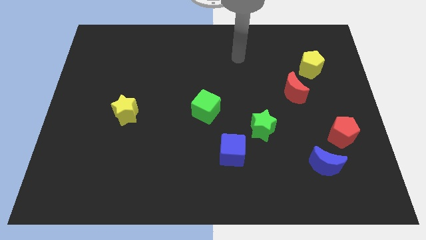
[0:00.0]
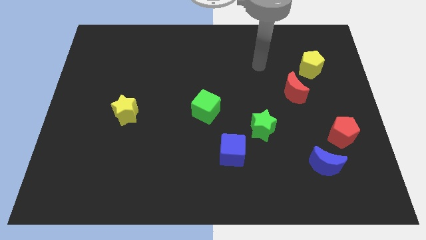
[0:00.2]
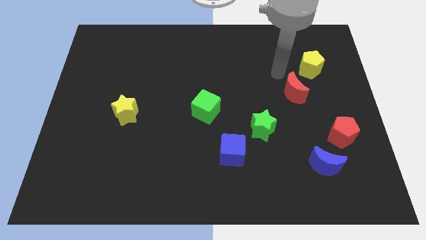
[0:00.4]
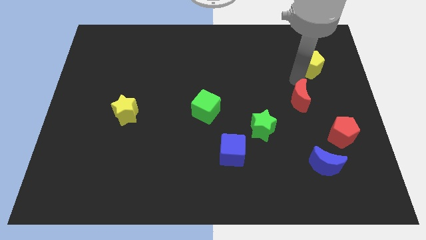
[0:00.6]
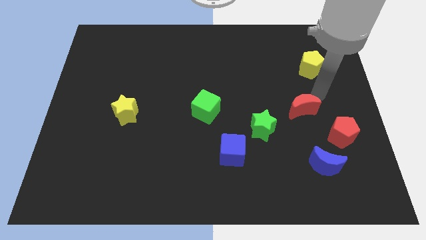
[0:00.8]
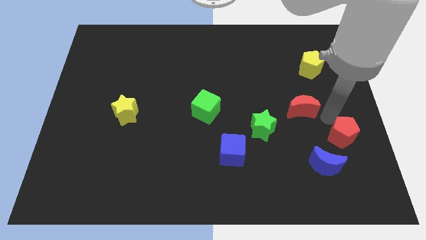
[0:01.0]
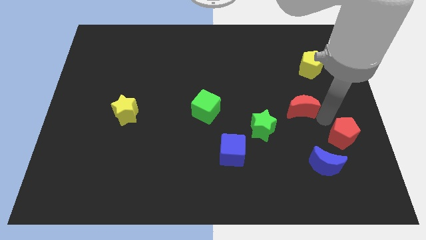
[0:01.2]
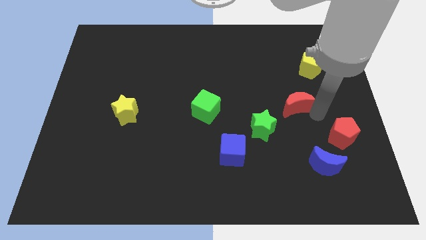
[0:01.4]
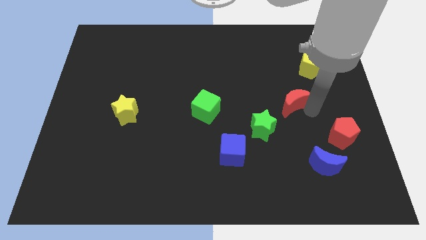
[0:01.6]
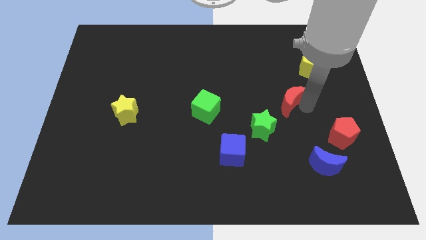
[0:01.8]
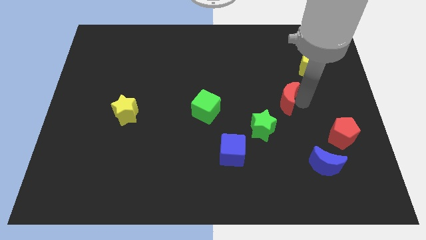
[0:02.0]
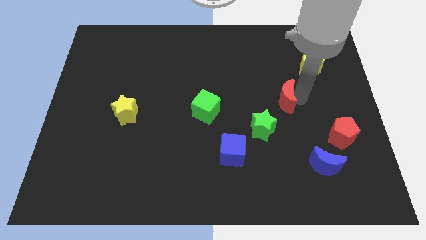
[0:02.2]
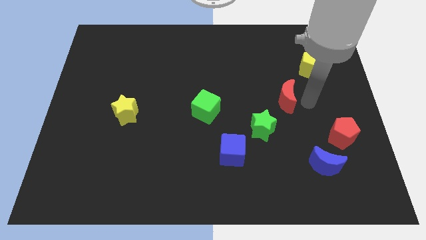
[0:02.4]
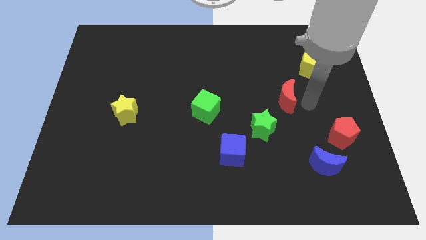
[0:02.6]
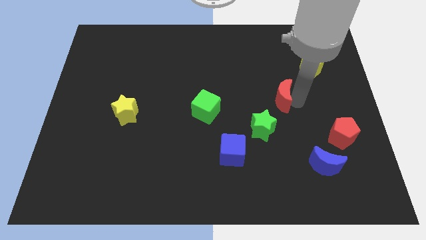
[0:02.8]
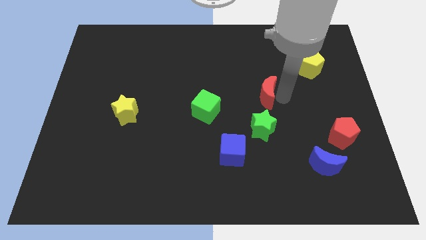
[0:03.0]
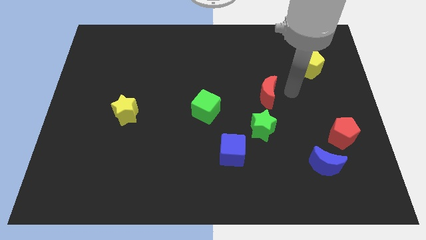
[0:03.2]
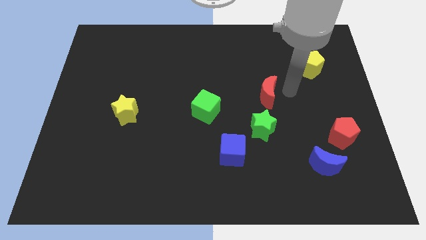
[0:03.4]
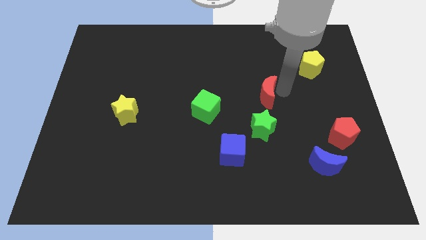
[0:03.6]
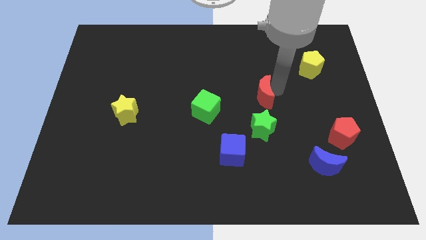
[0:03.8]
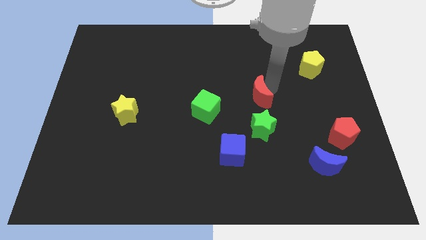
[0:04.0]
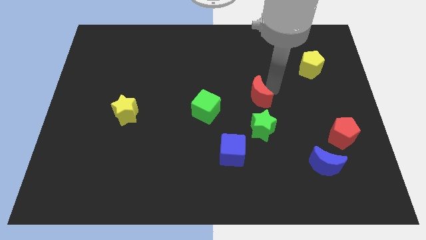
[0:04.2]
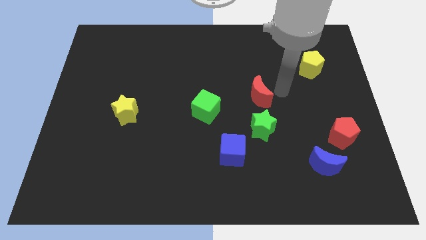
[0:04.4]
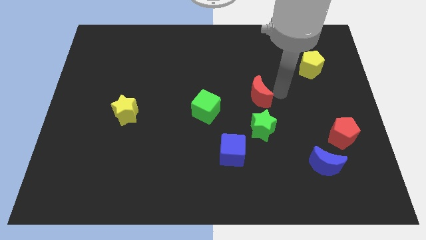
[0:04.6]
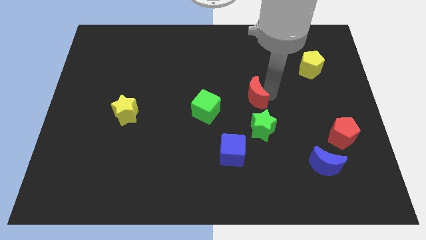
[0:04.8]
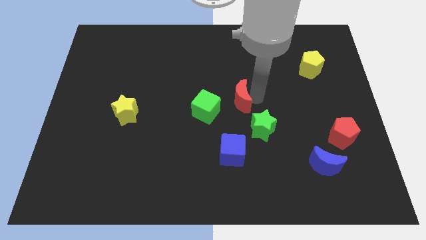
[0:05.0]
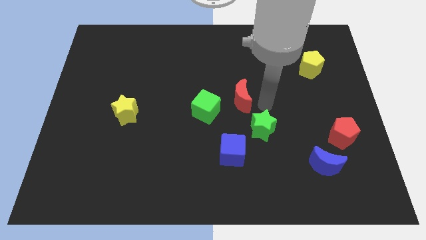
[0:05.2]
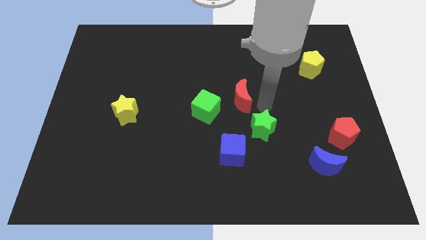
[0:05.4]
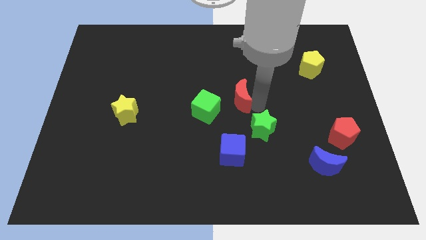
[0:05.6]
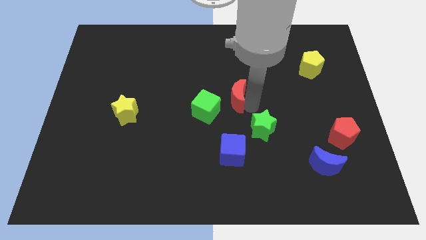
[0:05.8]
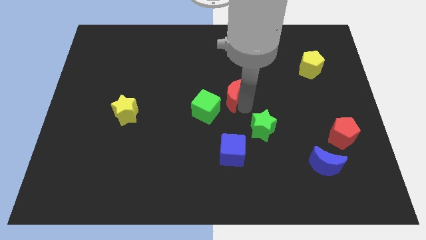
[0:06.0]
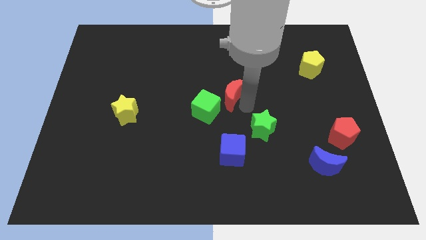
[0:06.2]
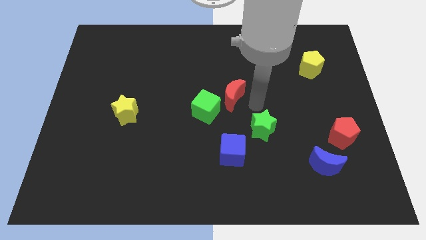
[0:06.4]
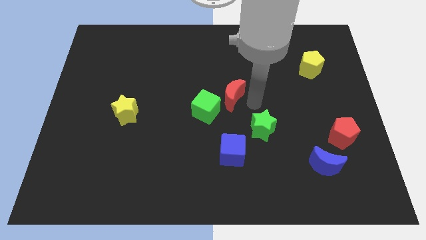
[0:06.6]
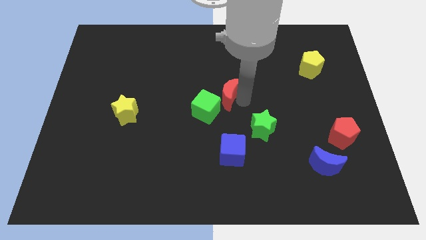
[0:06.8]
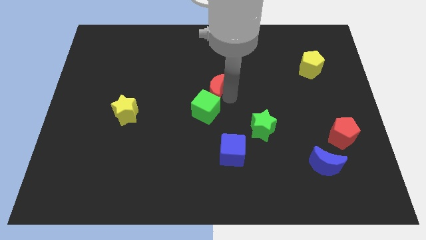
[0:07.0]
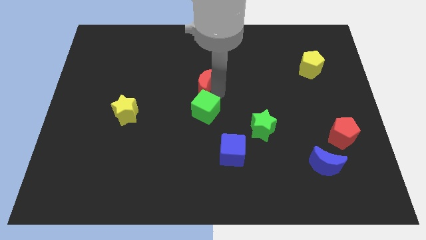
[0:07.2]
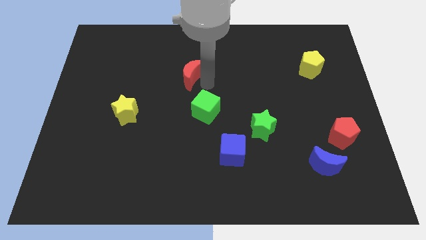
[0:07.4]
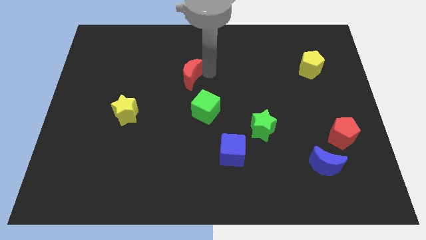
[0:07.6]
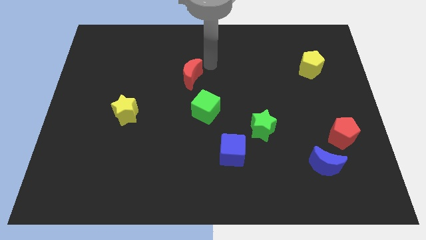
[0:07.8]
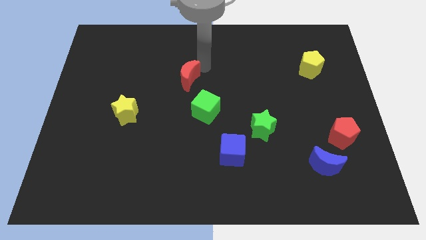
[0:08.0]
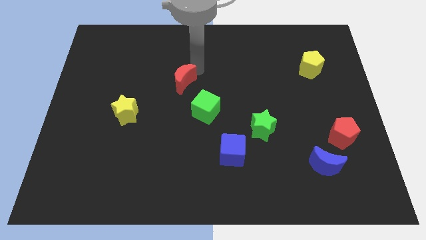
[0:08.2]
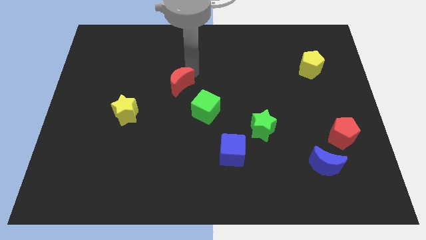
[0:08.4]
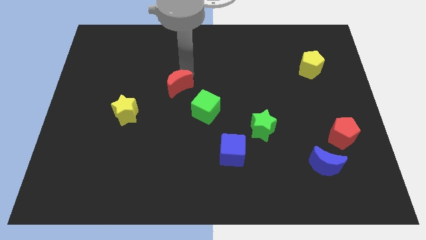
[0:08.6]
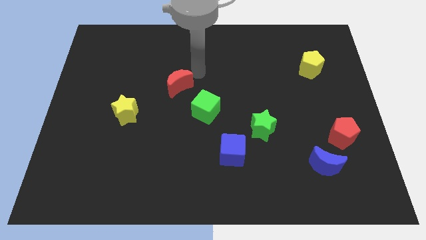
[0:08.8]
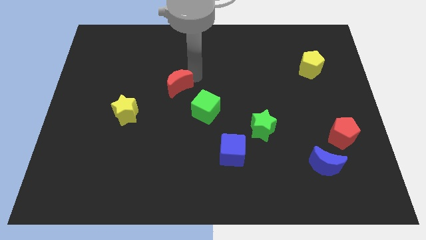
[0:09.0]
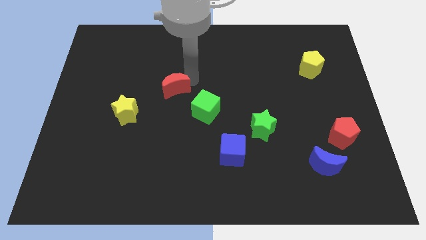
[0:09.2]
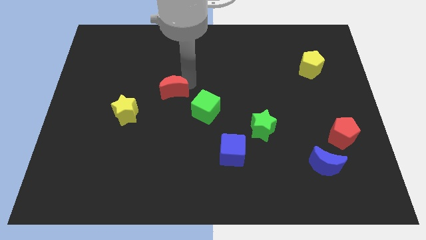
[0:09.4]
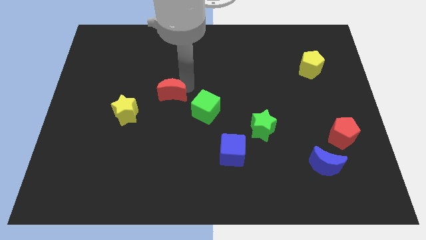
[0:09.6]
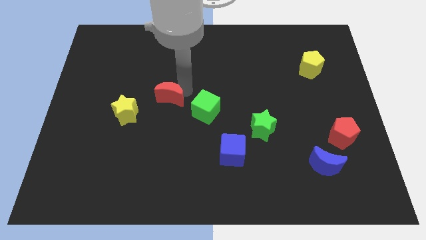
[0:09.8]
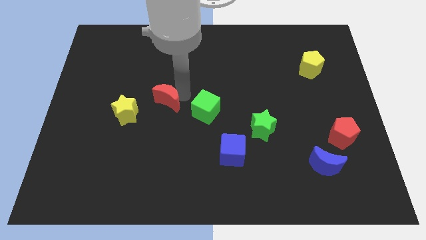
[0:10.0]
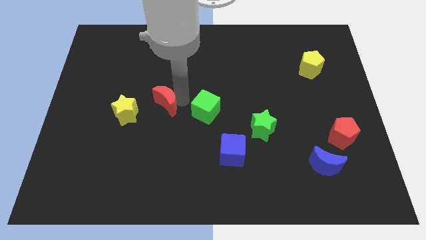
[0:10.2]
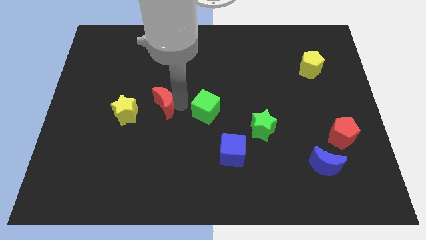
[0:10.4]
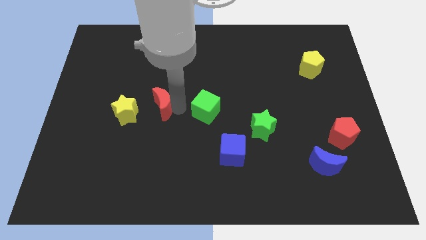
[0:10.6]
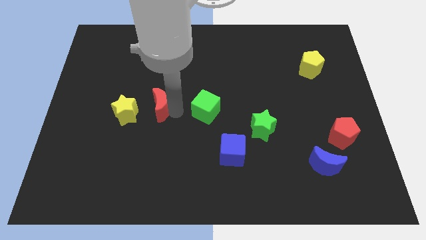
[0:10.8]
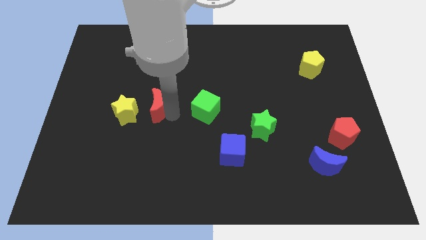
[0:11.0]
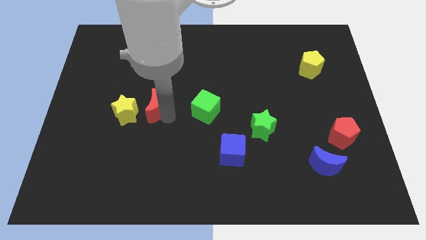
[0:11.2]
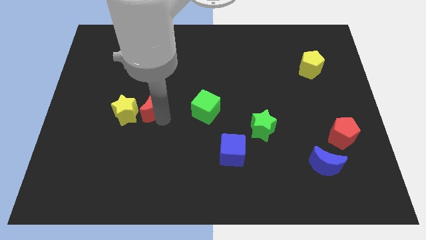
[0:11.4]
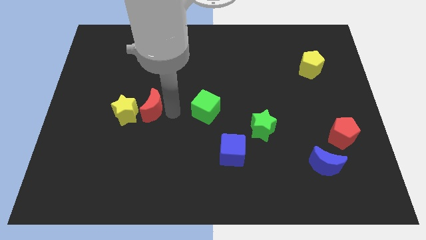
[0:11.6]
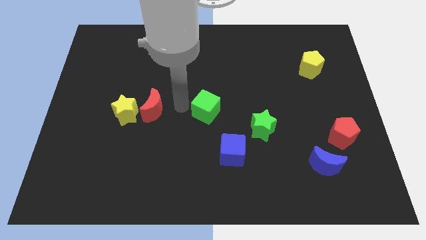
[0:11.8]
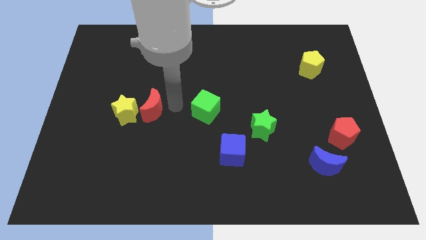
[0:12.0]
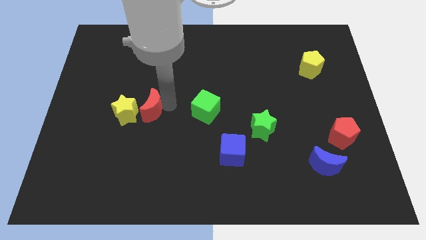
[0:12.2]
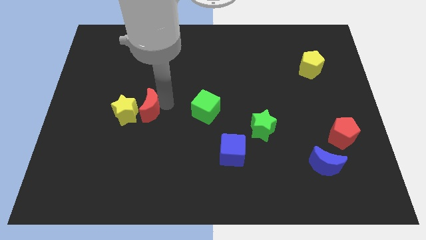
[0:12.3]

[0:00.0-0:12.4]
move the red moon to the yellow star

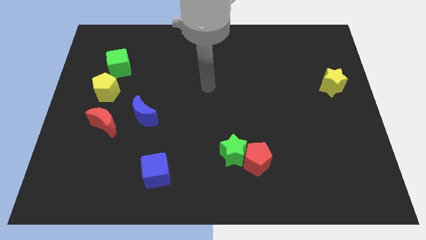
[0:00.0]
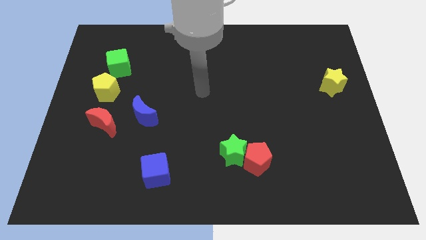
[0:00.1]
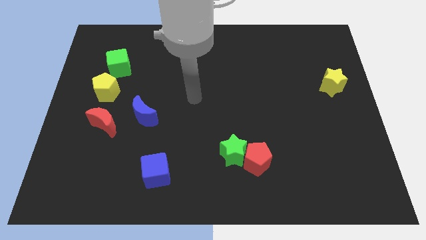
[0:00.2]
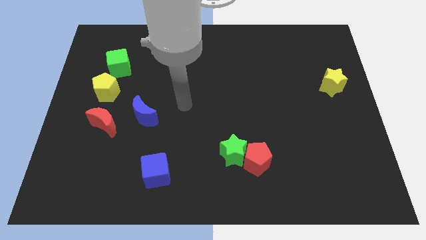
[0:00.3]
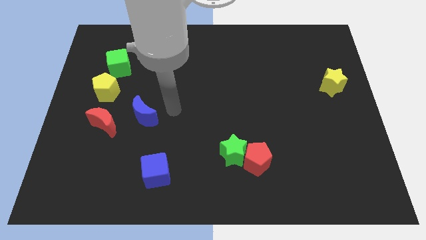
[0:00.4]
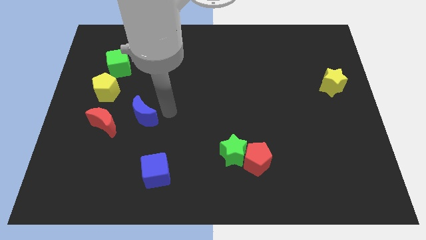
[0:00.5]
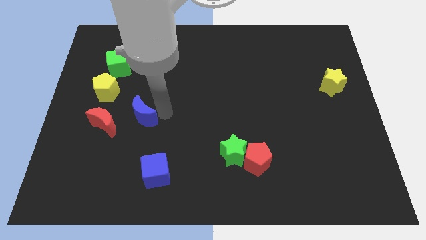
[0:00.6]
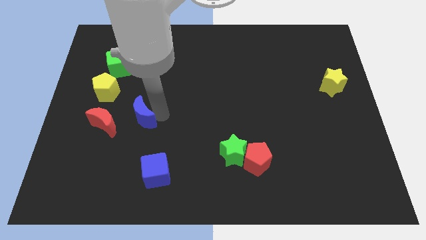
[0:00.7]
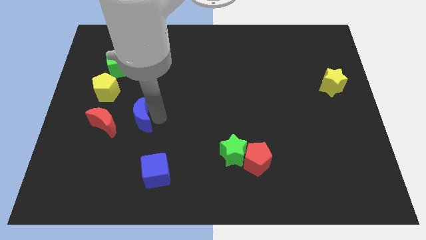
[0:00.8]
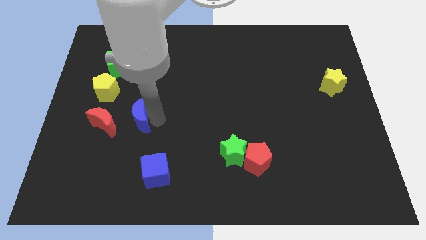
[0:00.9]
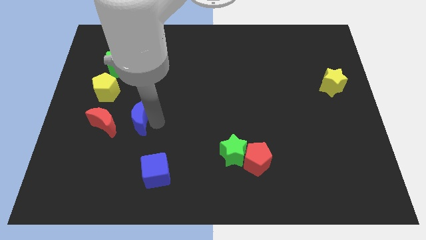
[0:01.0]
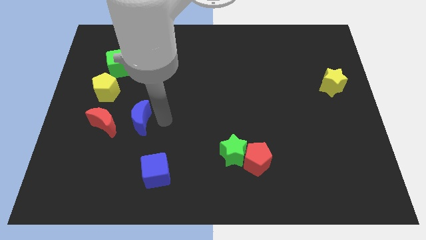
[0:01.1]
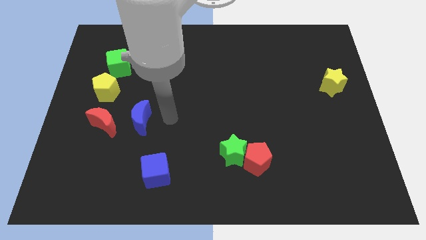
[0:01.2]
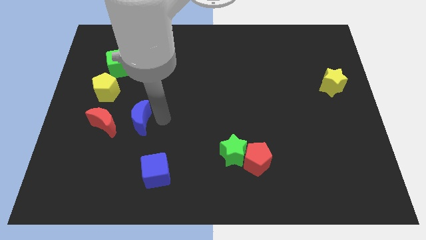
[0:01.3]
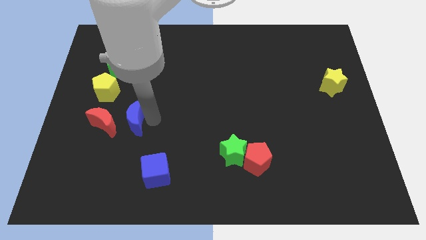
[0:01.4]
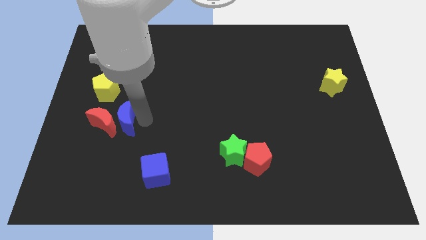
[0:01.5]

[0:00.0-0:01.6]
put the blue moon towards the red moon
